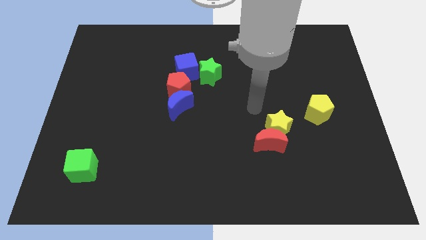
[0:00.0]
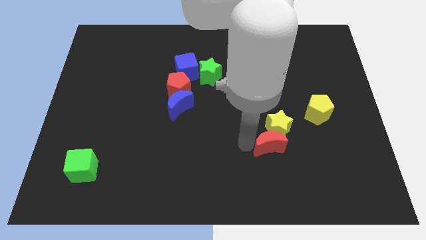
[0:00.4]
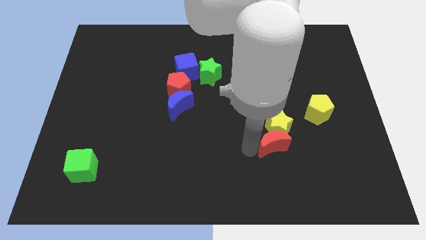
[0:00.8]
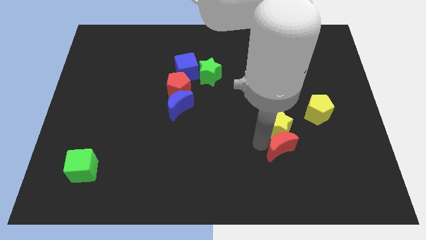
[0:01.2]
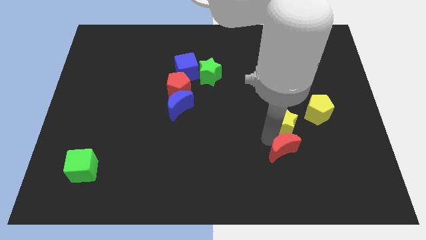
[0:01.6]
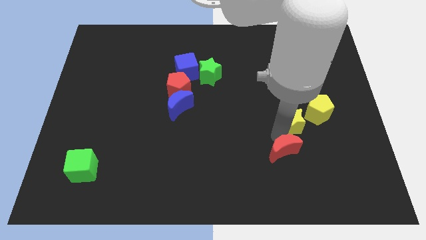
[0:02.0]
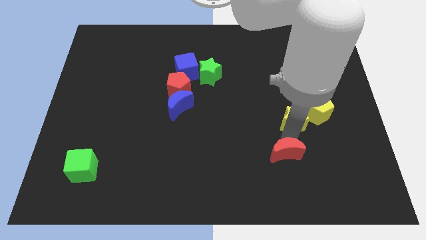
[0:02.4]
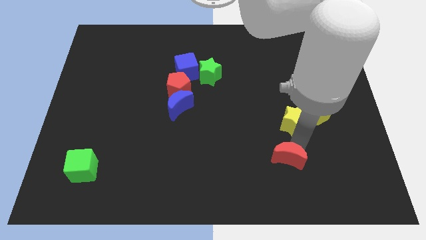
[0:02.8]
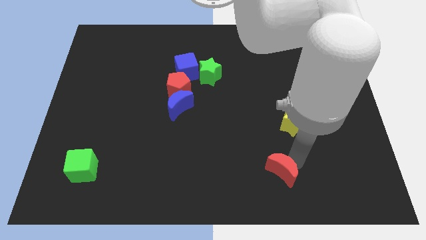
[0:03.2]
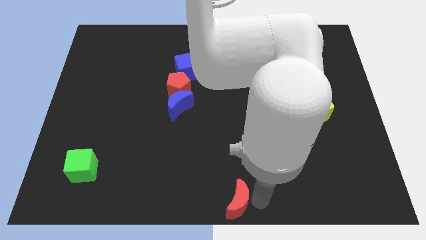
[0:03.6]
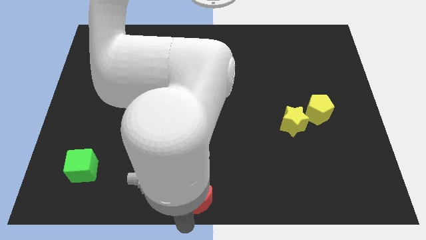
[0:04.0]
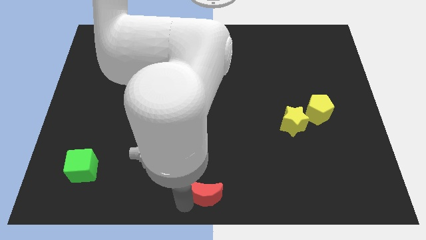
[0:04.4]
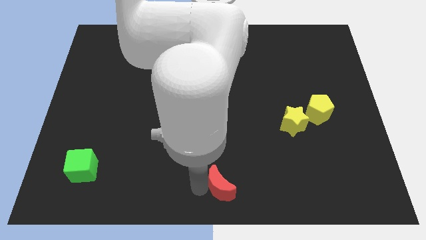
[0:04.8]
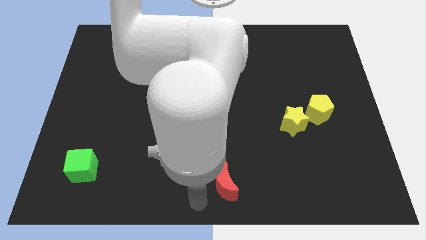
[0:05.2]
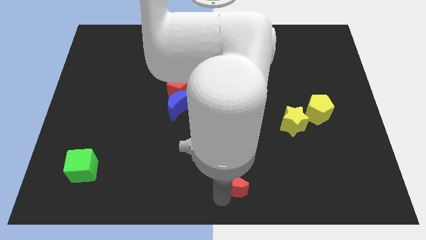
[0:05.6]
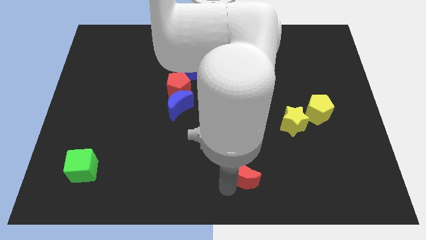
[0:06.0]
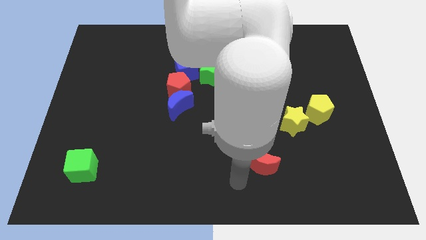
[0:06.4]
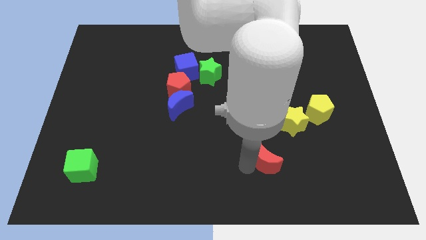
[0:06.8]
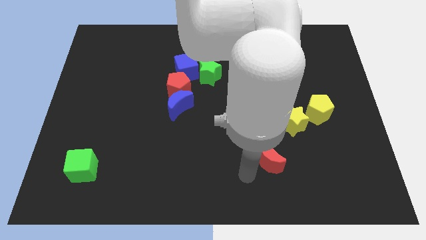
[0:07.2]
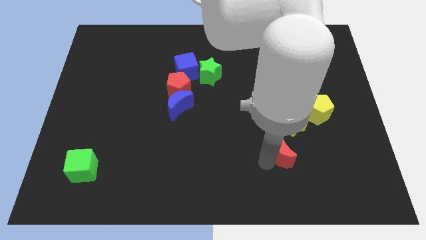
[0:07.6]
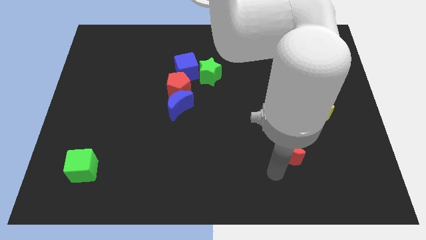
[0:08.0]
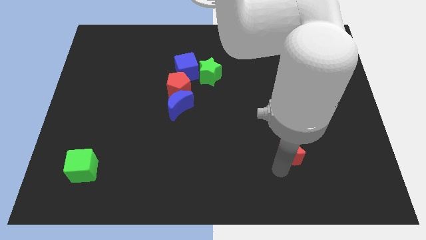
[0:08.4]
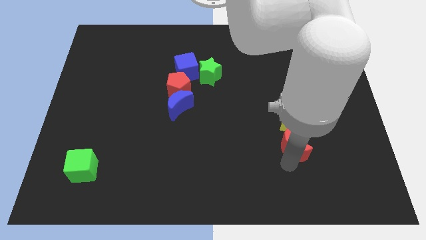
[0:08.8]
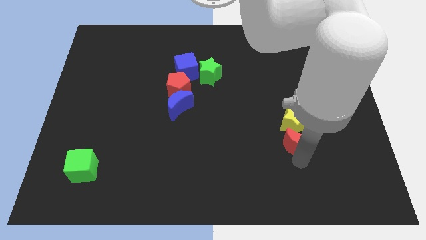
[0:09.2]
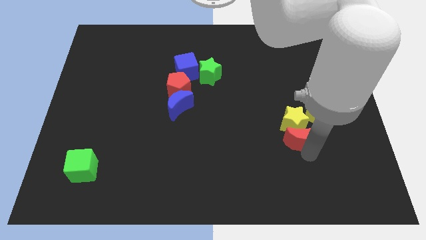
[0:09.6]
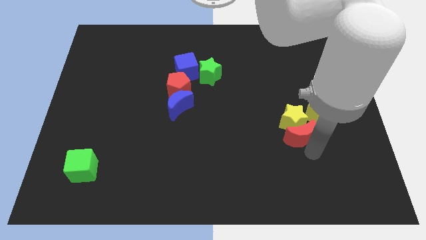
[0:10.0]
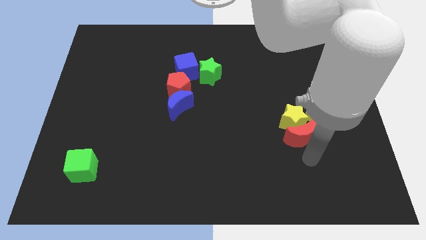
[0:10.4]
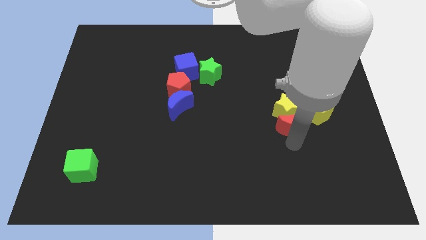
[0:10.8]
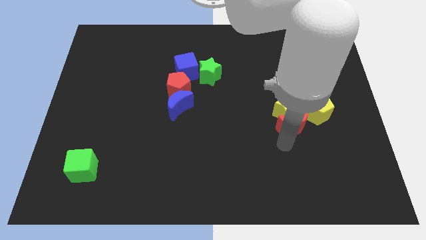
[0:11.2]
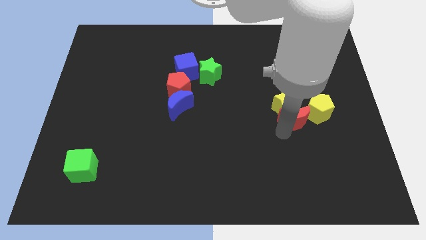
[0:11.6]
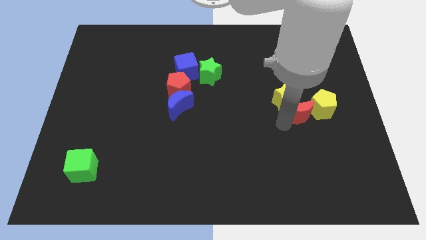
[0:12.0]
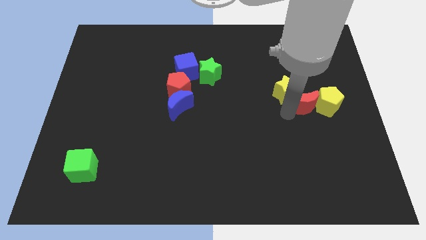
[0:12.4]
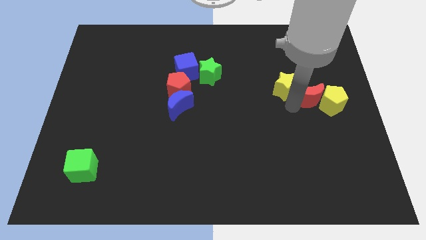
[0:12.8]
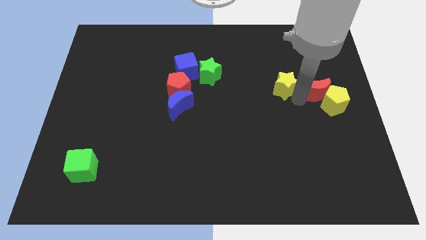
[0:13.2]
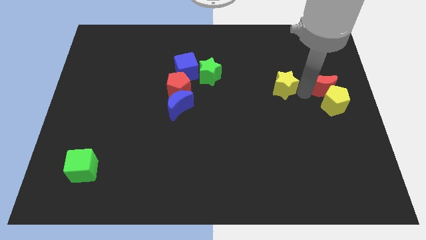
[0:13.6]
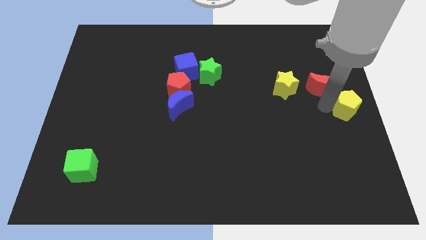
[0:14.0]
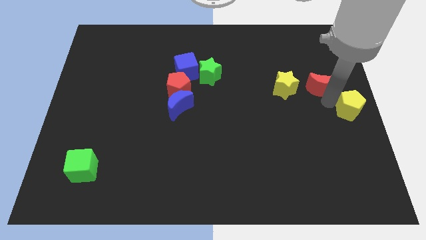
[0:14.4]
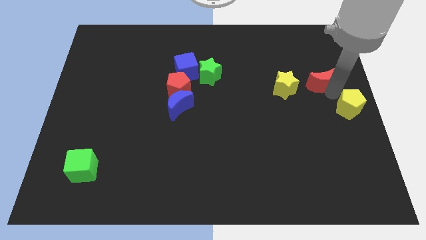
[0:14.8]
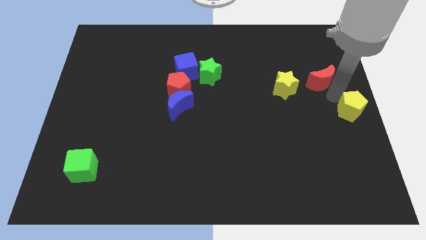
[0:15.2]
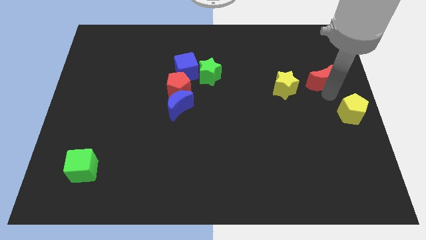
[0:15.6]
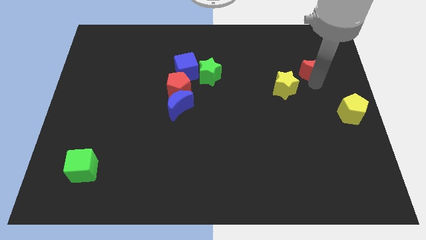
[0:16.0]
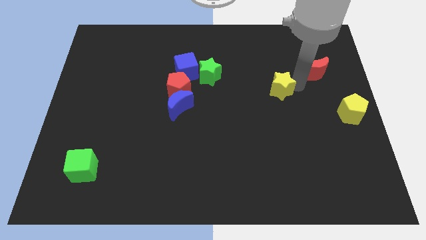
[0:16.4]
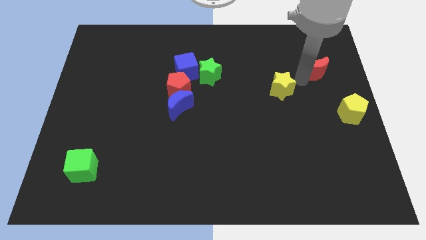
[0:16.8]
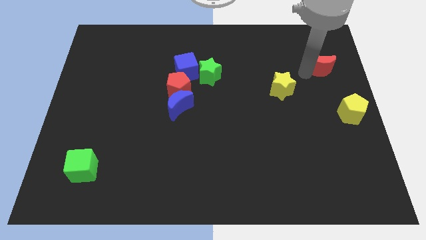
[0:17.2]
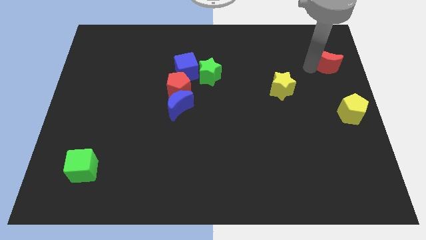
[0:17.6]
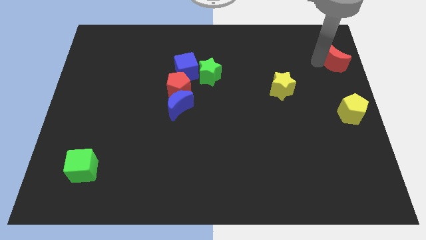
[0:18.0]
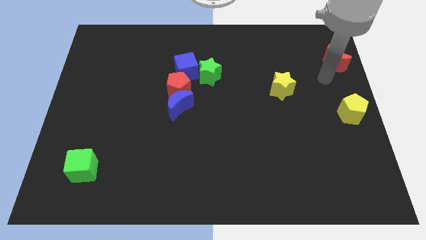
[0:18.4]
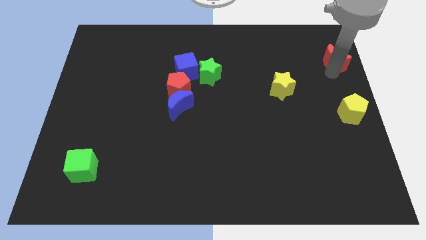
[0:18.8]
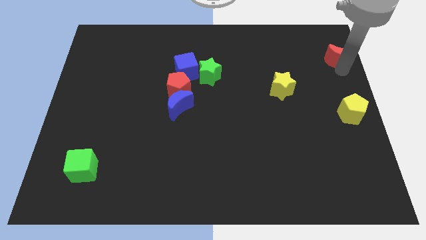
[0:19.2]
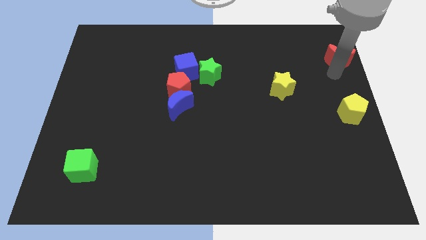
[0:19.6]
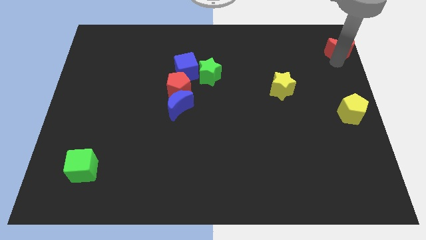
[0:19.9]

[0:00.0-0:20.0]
slide the red moon to the top right
